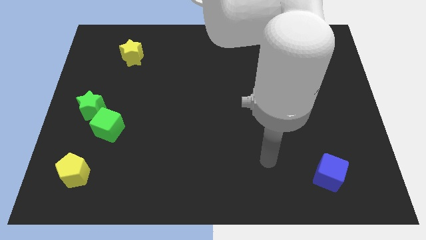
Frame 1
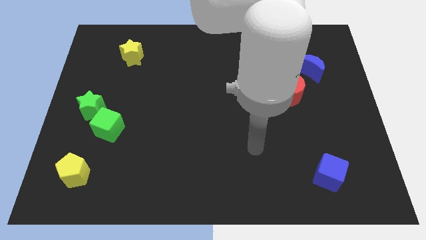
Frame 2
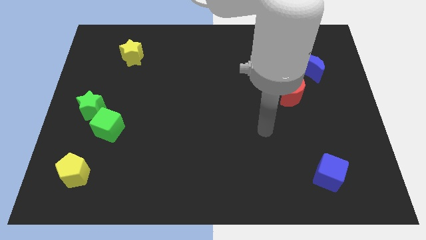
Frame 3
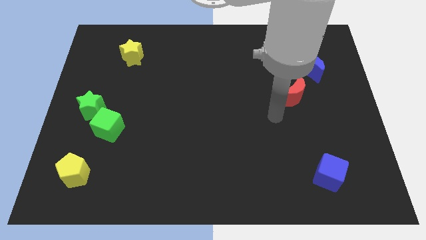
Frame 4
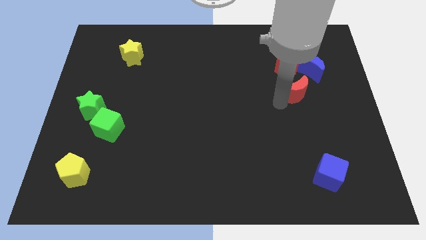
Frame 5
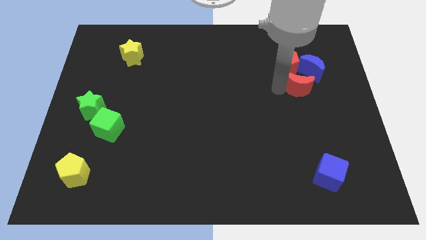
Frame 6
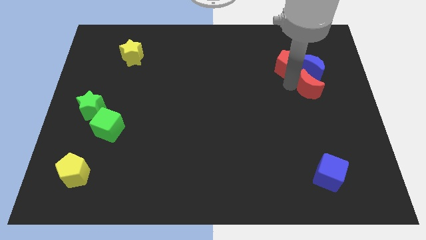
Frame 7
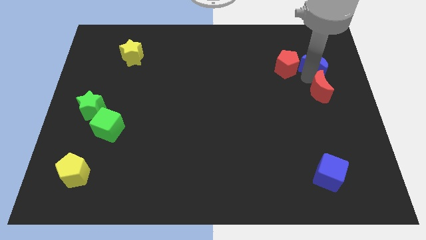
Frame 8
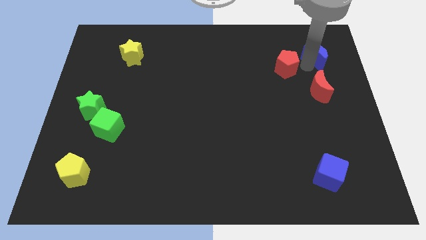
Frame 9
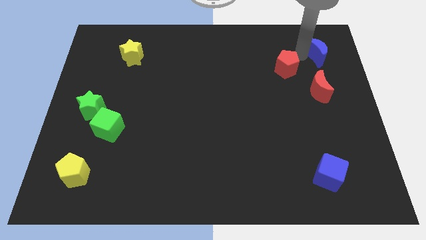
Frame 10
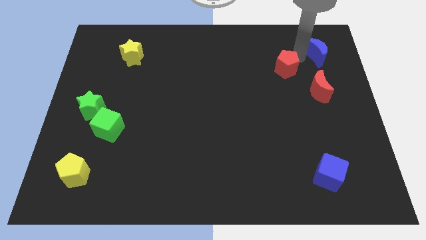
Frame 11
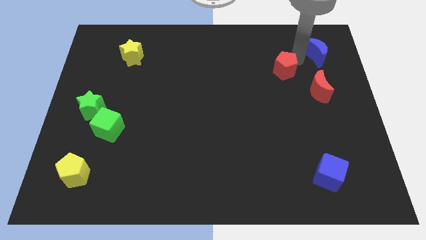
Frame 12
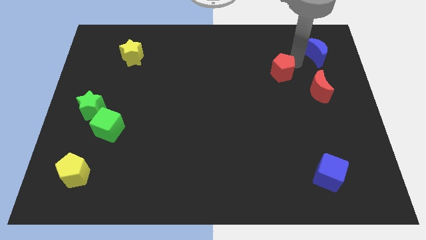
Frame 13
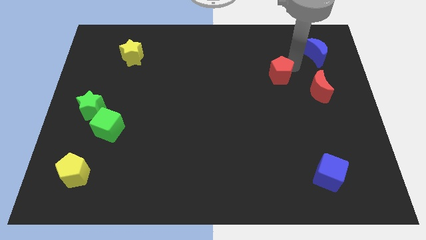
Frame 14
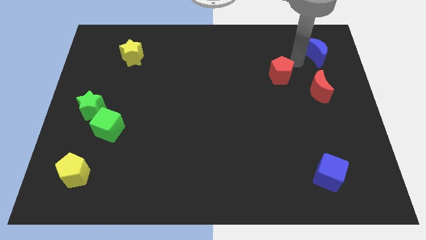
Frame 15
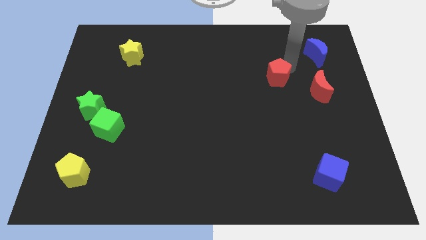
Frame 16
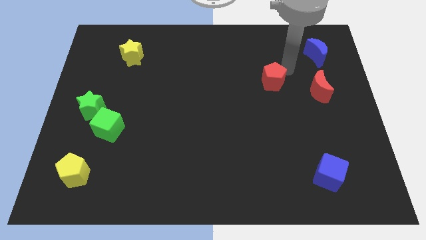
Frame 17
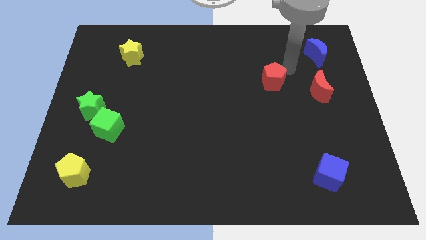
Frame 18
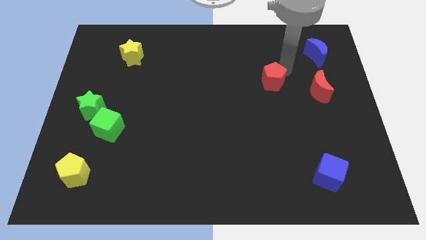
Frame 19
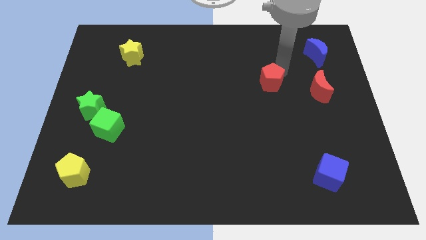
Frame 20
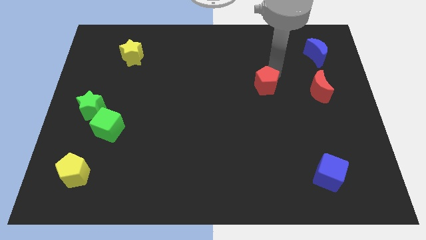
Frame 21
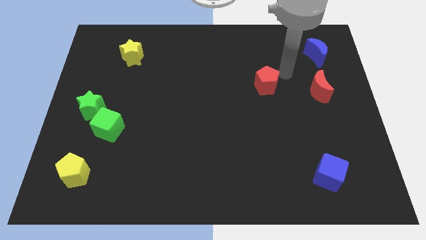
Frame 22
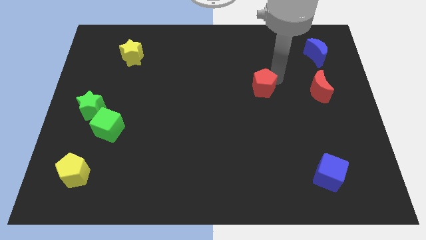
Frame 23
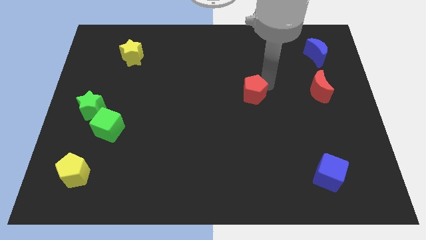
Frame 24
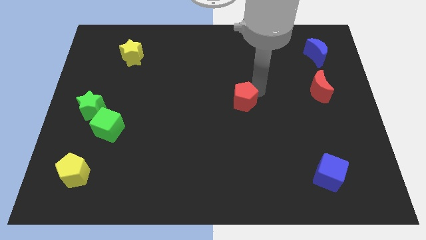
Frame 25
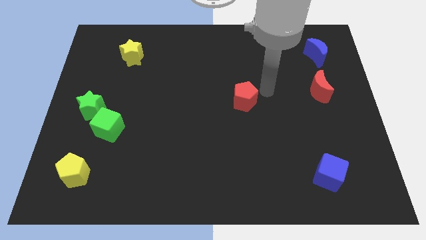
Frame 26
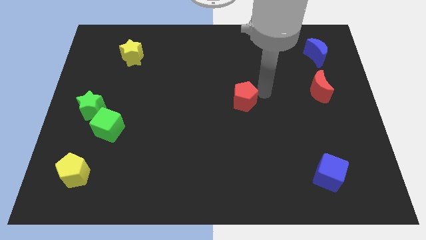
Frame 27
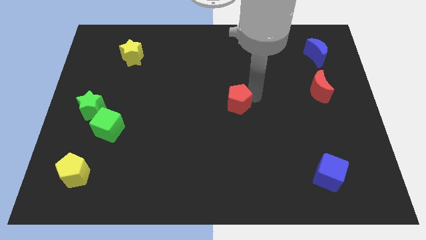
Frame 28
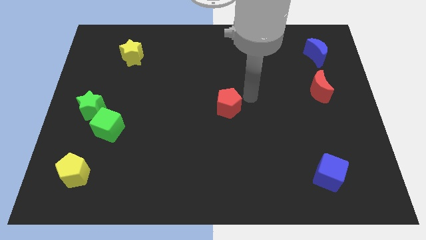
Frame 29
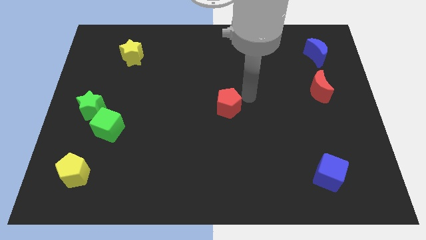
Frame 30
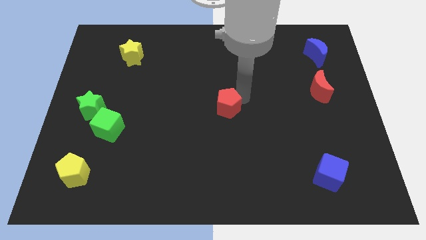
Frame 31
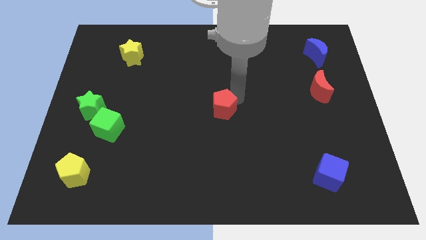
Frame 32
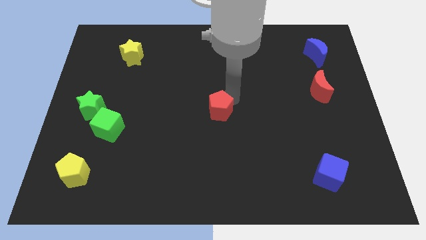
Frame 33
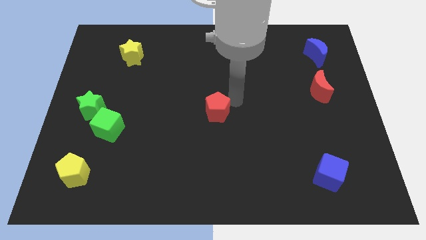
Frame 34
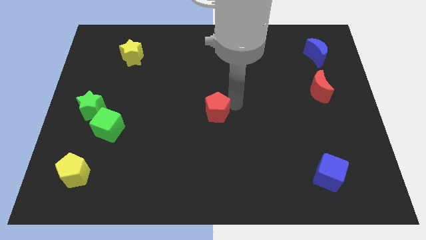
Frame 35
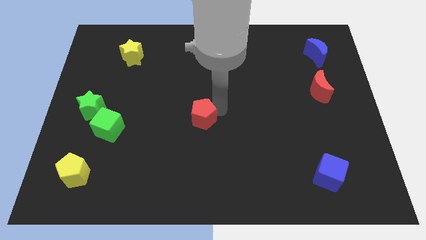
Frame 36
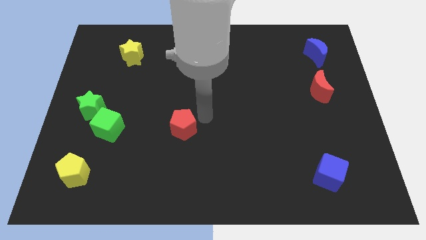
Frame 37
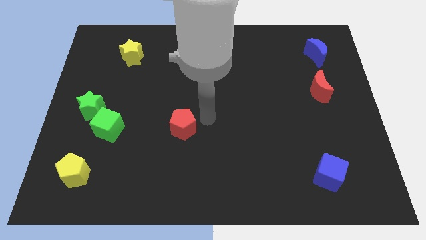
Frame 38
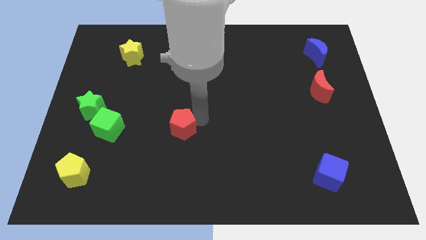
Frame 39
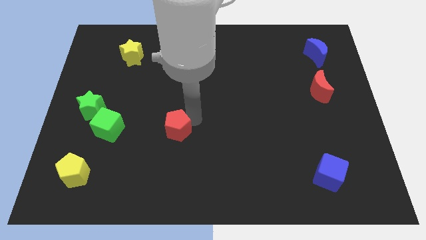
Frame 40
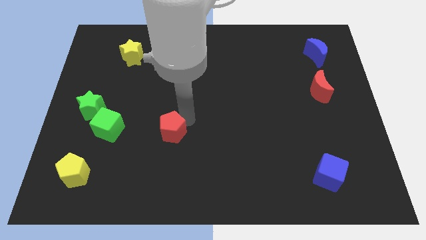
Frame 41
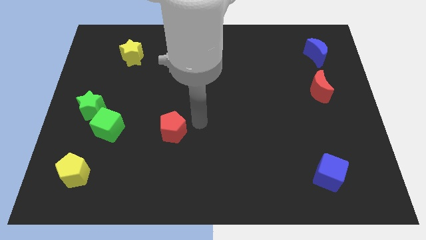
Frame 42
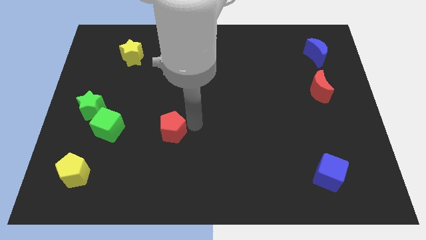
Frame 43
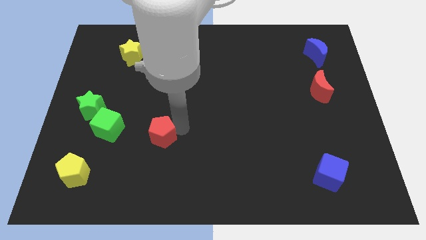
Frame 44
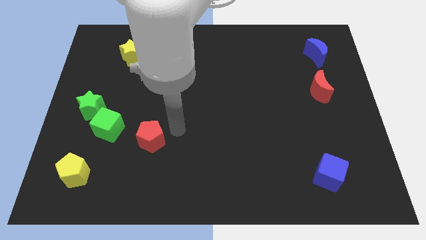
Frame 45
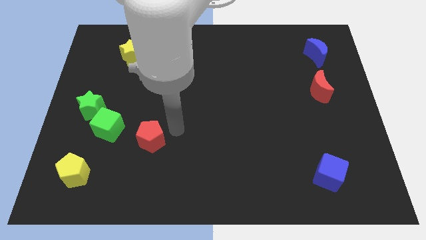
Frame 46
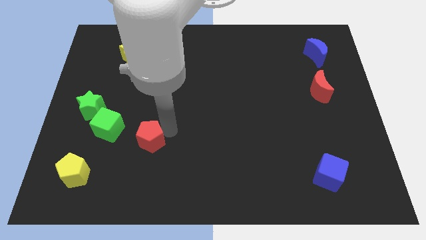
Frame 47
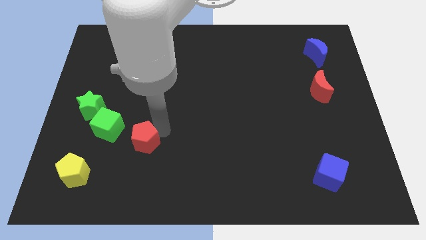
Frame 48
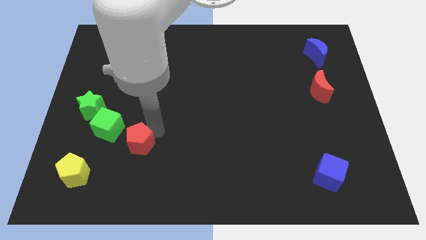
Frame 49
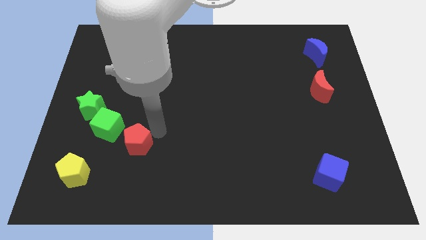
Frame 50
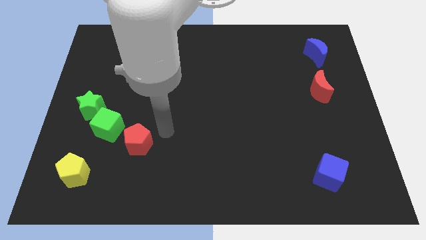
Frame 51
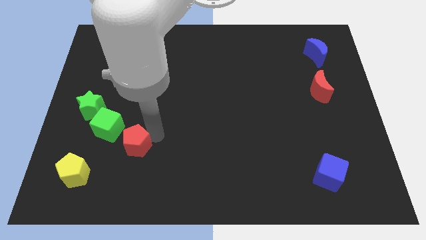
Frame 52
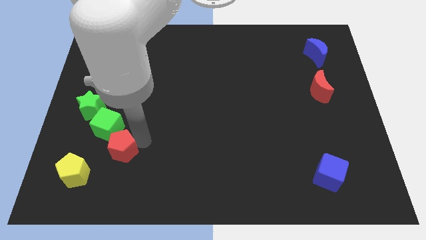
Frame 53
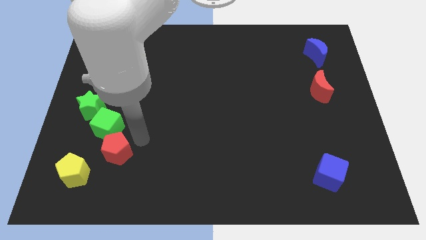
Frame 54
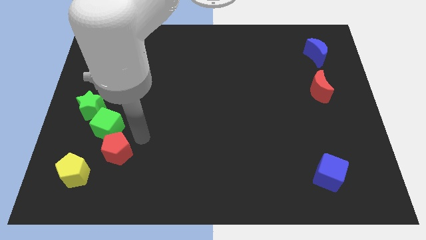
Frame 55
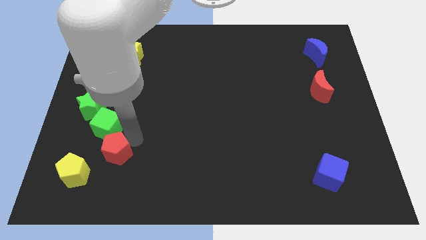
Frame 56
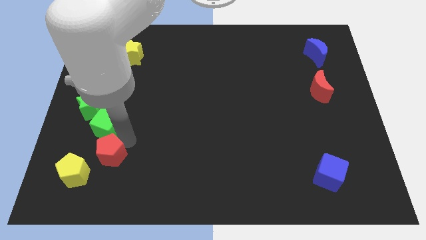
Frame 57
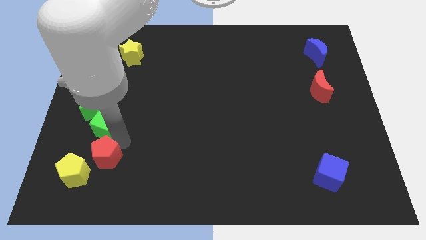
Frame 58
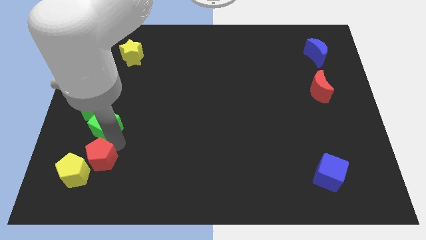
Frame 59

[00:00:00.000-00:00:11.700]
move the red pentagon to the yellow pentagon

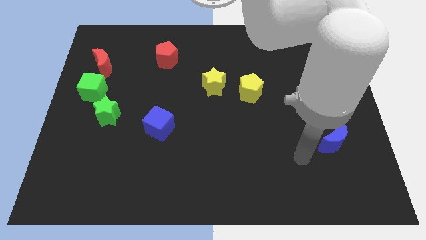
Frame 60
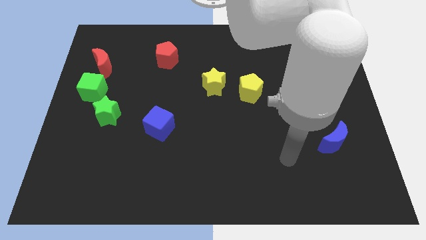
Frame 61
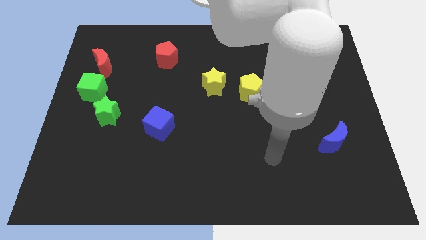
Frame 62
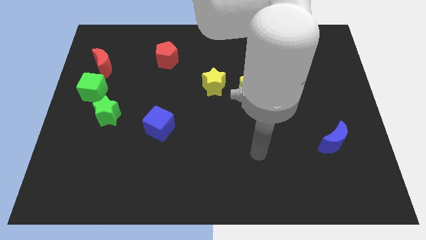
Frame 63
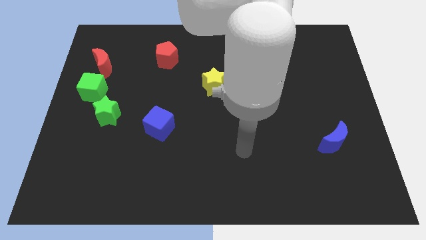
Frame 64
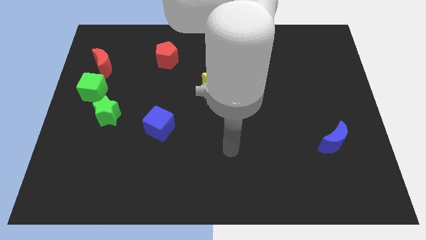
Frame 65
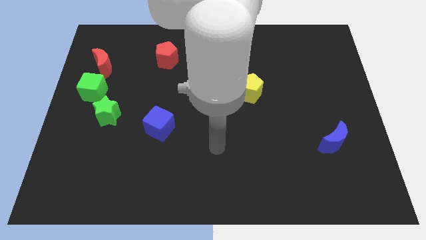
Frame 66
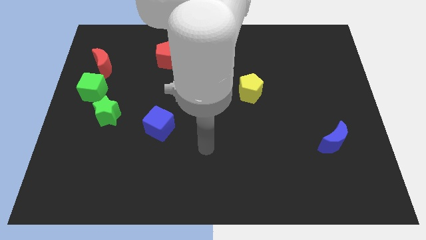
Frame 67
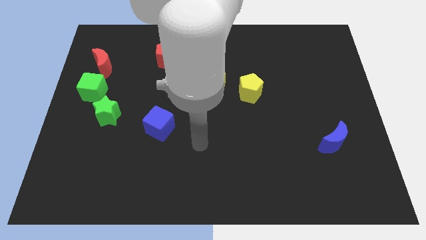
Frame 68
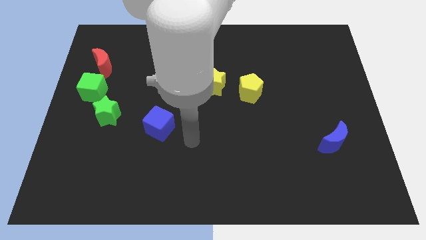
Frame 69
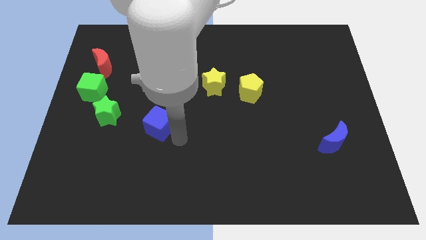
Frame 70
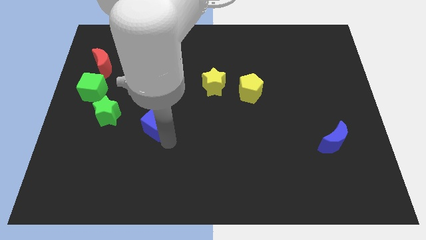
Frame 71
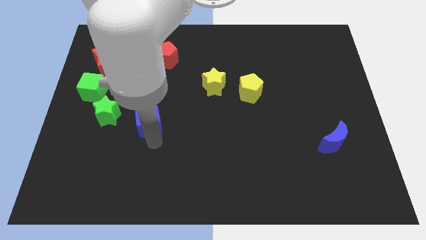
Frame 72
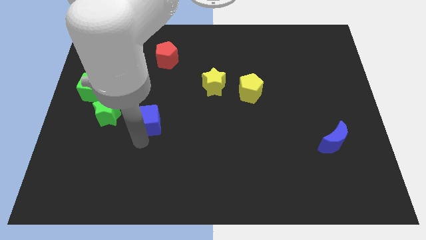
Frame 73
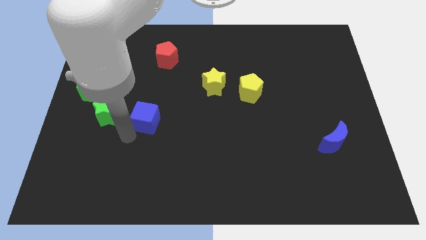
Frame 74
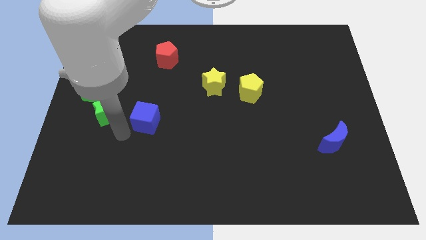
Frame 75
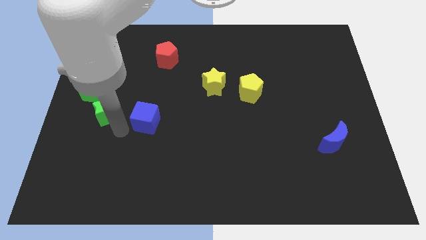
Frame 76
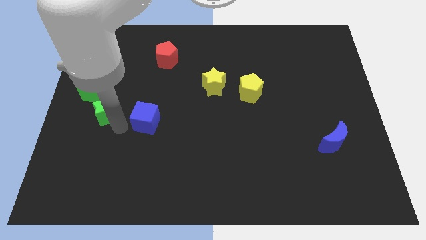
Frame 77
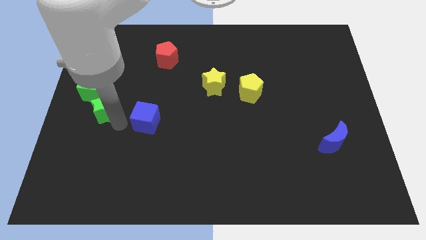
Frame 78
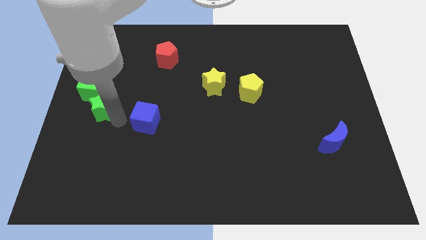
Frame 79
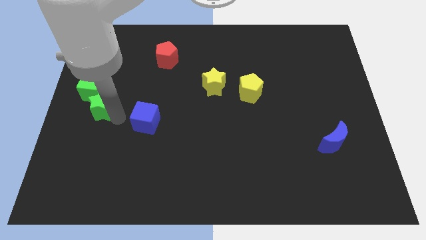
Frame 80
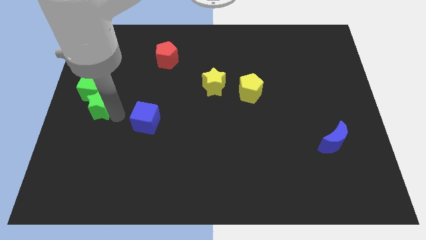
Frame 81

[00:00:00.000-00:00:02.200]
put the green star close to the green cube

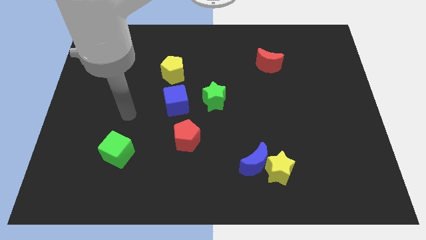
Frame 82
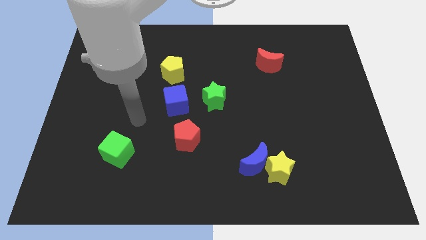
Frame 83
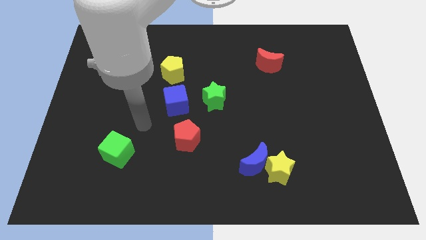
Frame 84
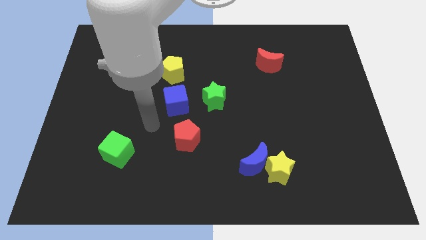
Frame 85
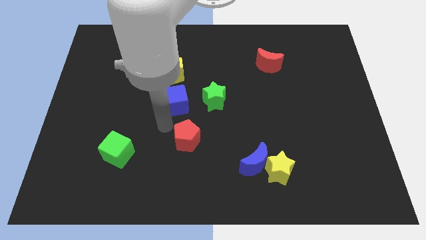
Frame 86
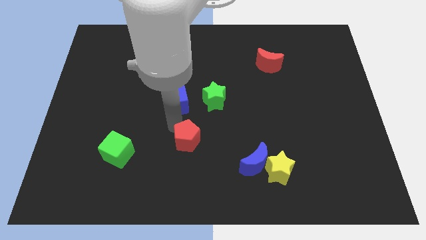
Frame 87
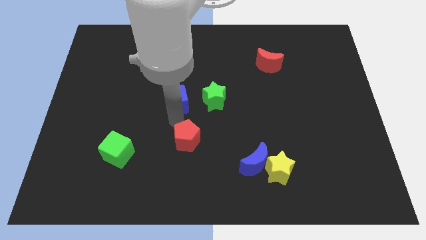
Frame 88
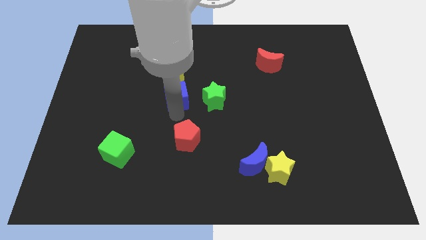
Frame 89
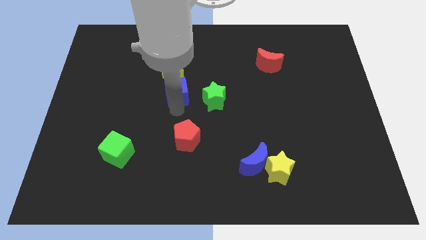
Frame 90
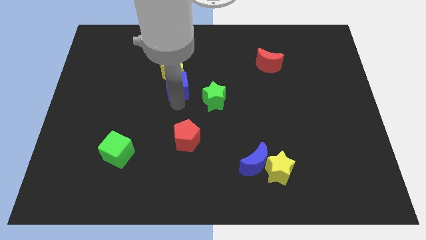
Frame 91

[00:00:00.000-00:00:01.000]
slide the blue cube to the yellow pentagon
